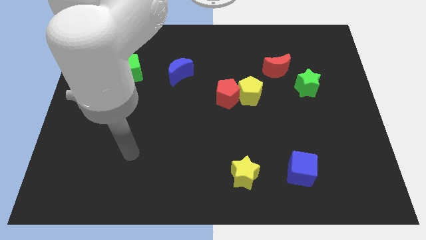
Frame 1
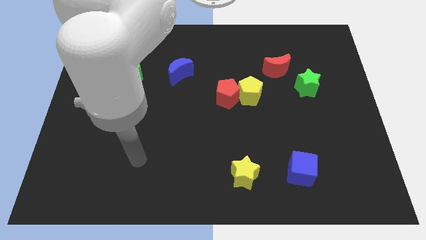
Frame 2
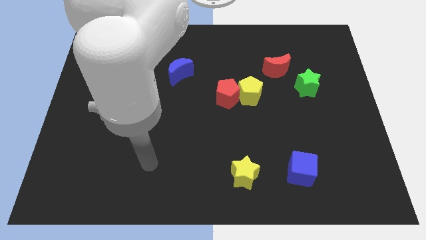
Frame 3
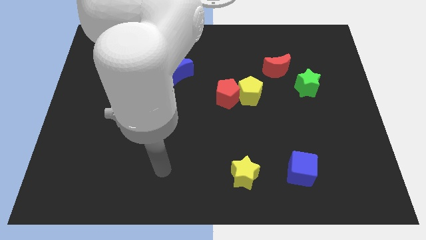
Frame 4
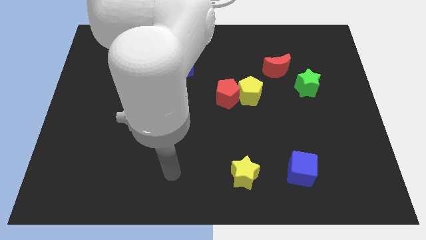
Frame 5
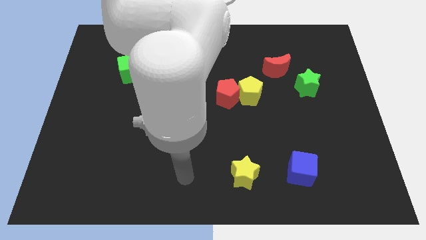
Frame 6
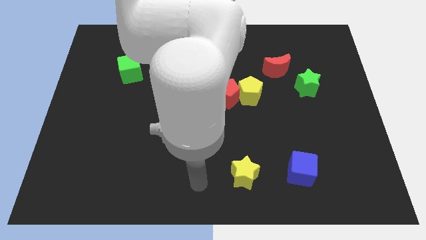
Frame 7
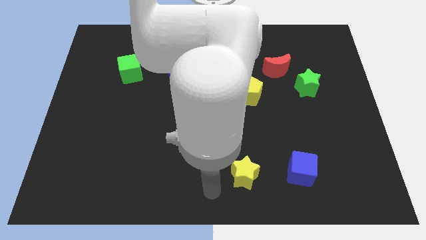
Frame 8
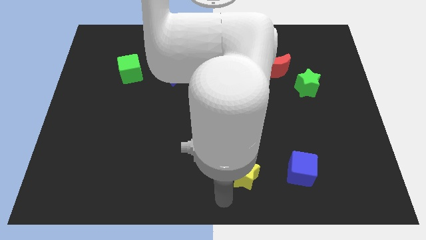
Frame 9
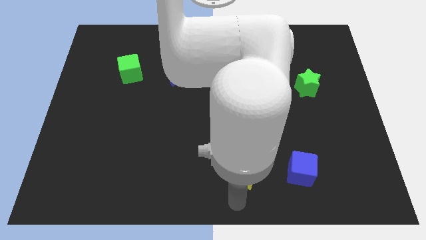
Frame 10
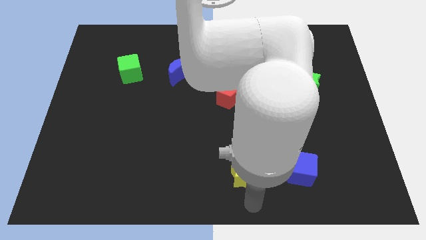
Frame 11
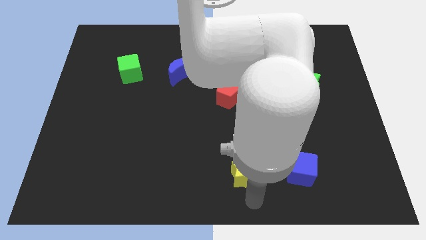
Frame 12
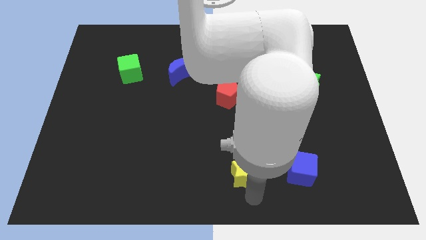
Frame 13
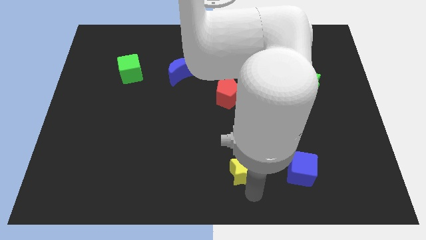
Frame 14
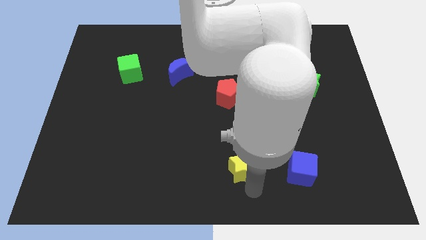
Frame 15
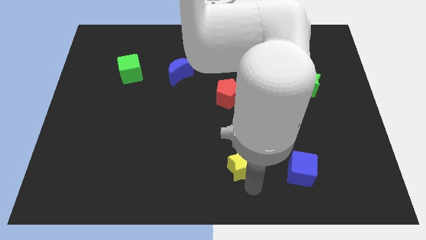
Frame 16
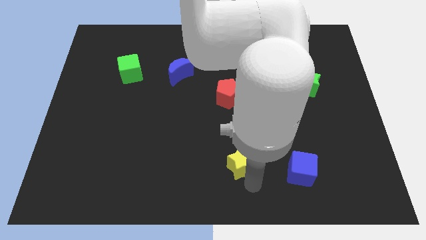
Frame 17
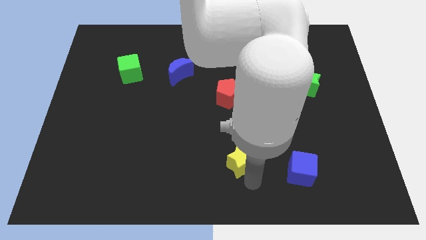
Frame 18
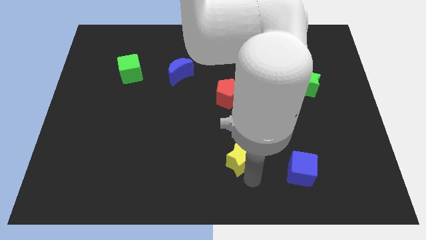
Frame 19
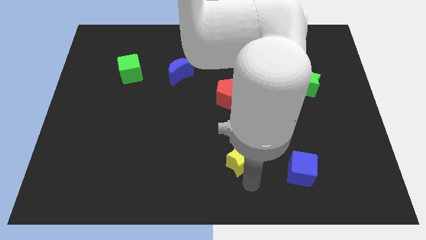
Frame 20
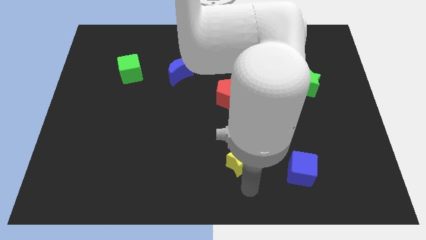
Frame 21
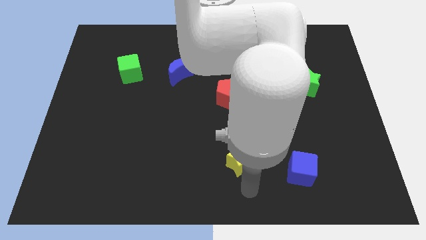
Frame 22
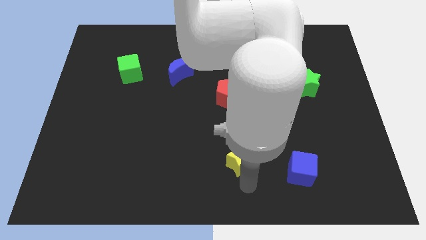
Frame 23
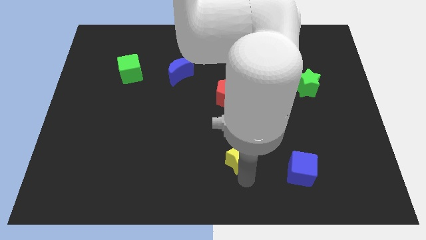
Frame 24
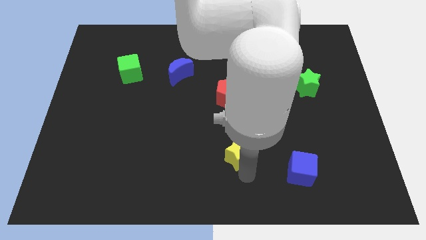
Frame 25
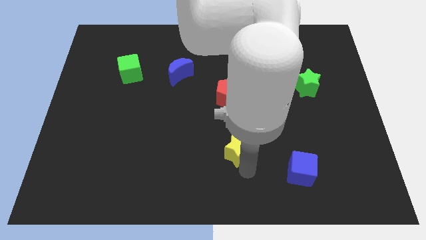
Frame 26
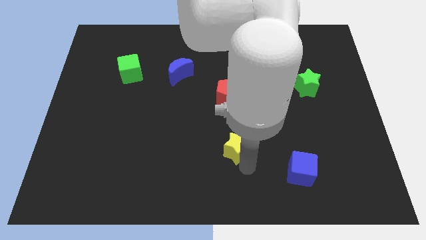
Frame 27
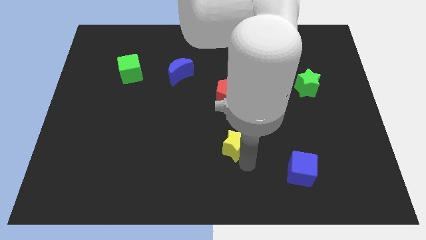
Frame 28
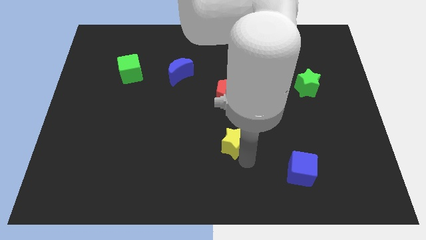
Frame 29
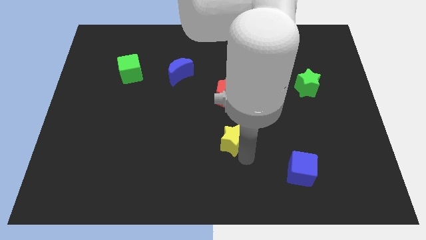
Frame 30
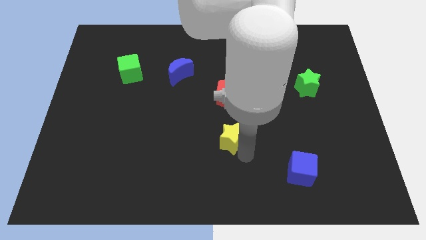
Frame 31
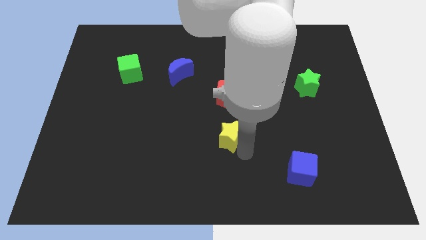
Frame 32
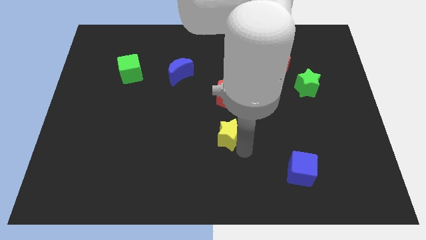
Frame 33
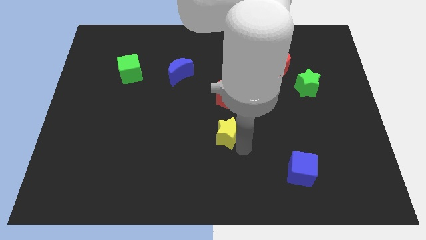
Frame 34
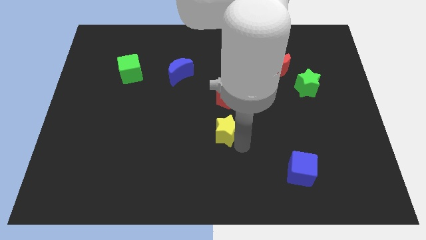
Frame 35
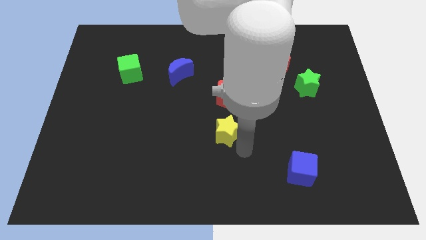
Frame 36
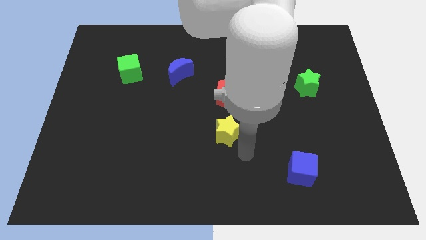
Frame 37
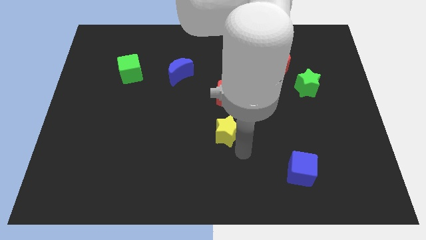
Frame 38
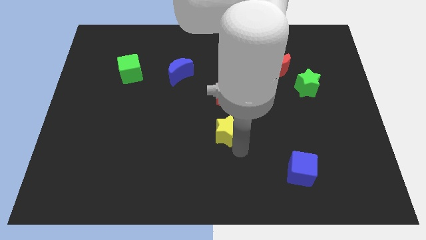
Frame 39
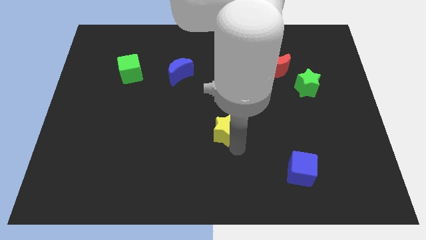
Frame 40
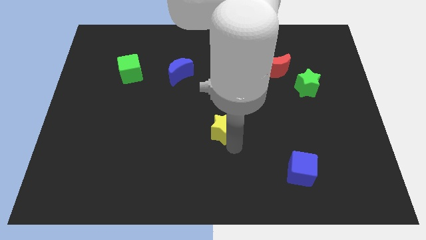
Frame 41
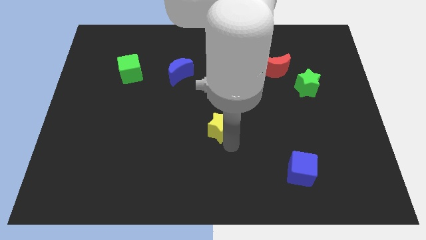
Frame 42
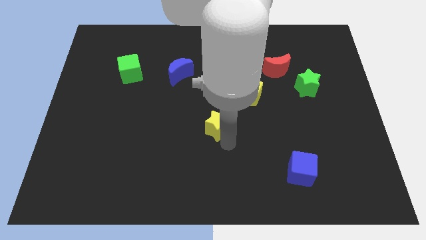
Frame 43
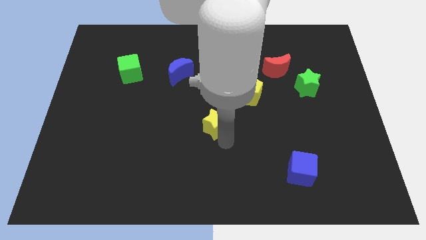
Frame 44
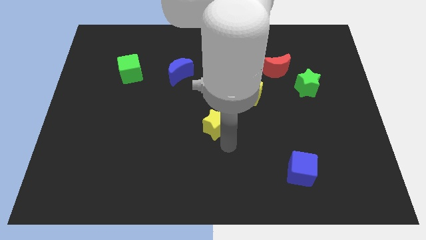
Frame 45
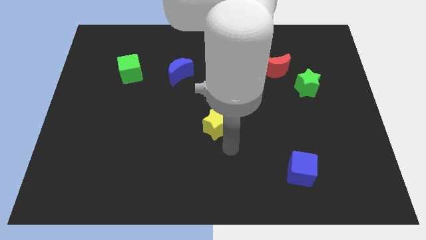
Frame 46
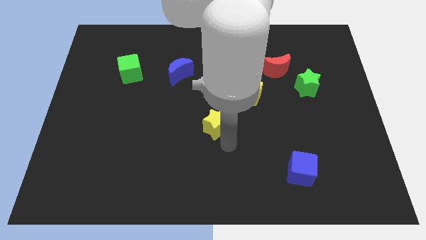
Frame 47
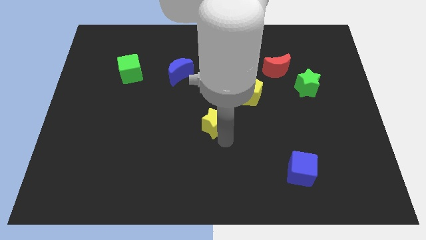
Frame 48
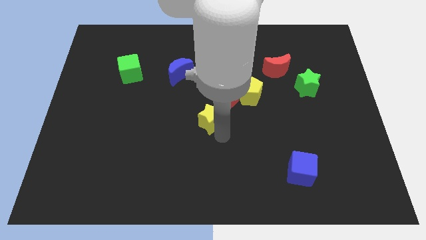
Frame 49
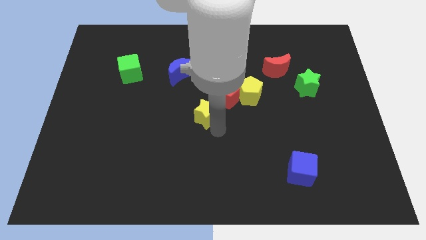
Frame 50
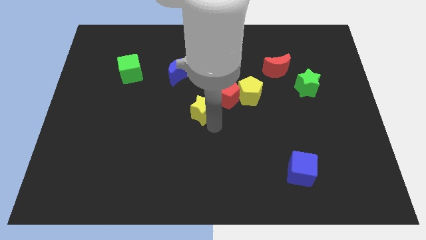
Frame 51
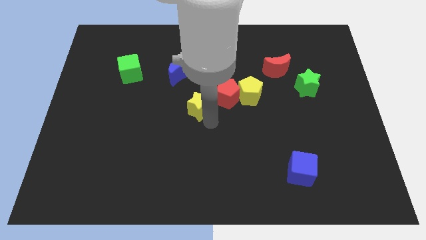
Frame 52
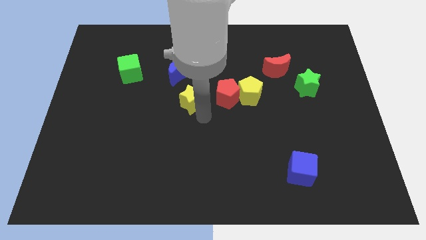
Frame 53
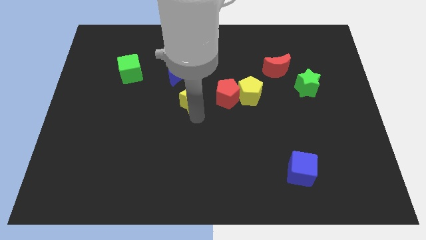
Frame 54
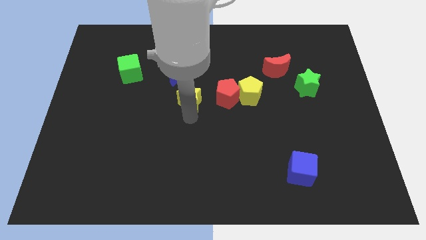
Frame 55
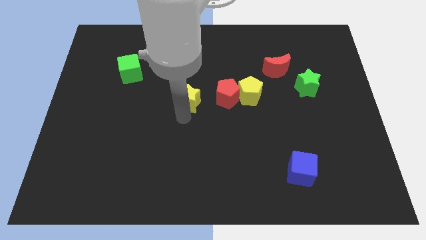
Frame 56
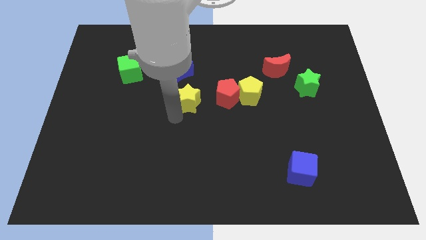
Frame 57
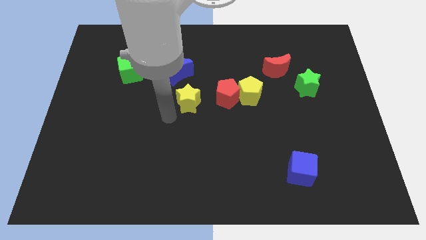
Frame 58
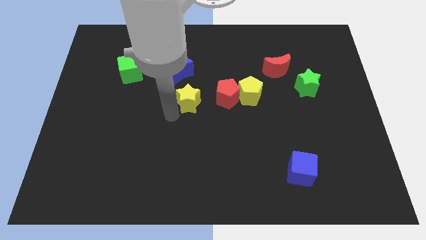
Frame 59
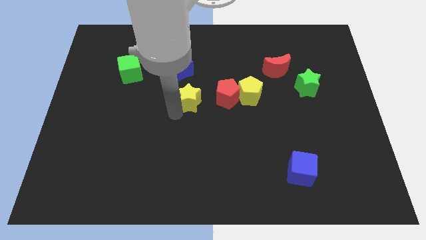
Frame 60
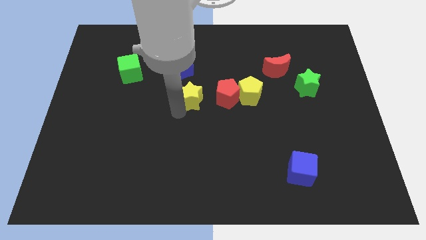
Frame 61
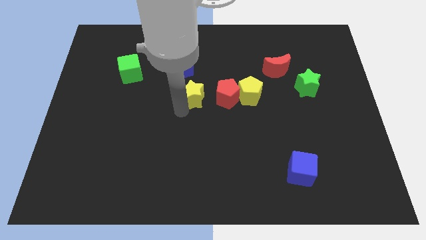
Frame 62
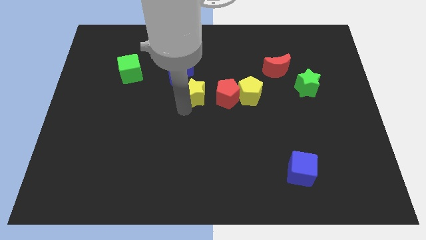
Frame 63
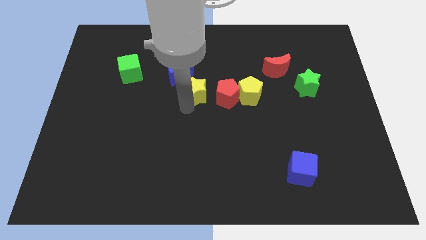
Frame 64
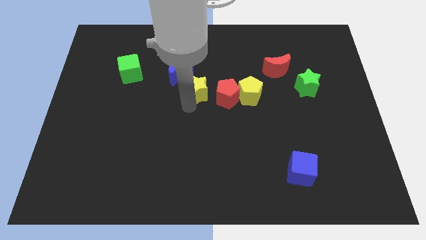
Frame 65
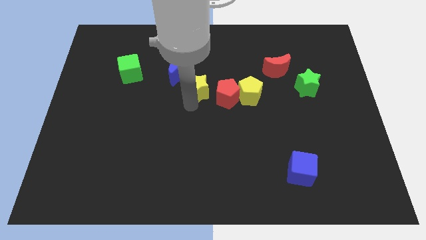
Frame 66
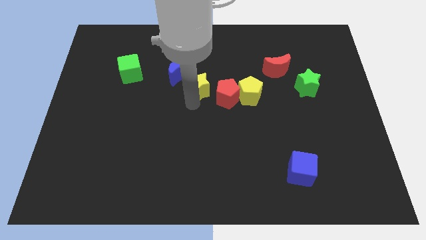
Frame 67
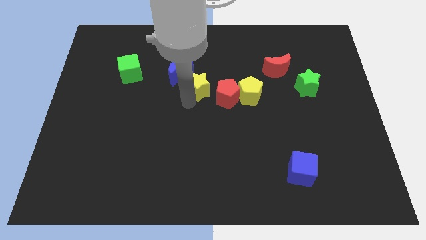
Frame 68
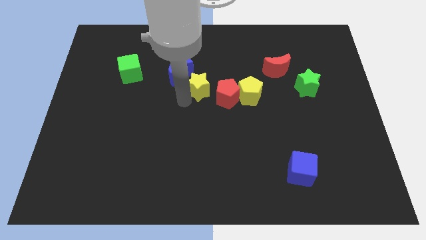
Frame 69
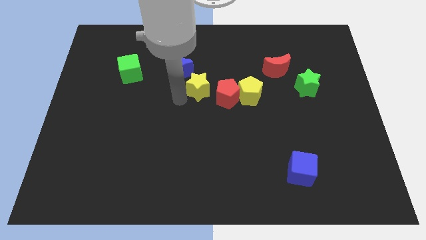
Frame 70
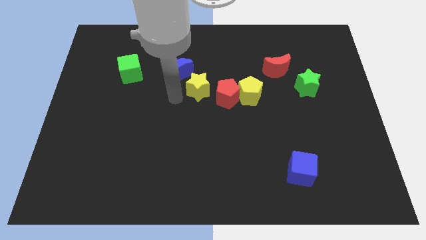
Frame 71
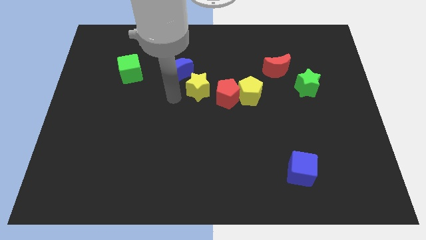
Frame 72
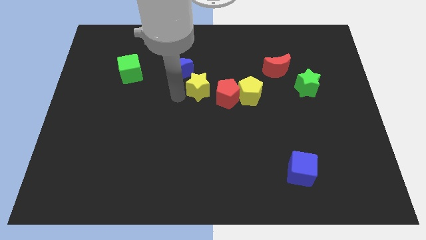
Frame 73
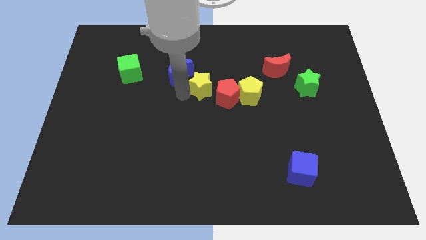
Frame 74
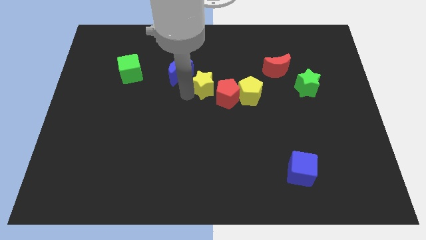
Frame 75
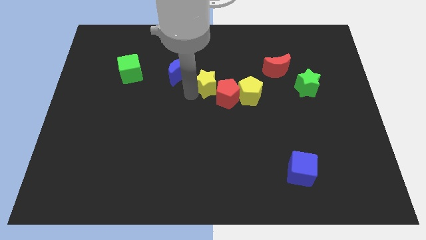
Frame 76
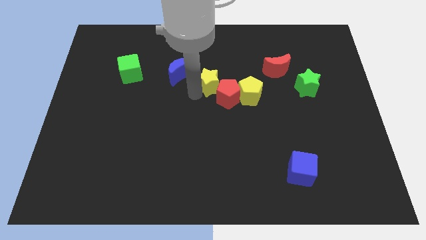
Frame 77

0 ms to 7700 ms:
move the yellow star above the red pentagon
